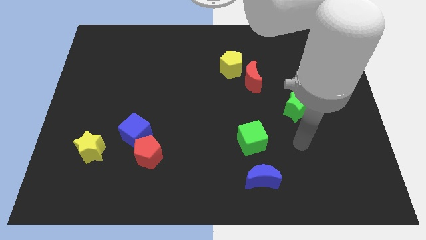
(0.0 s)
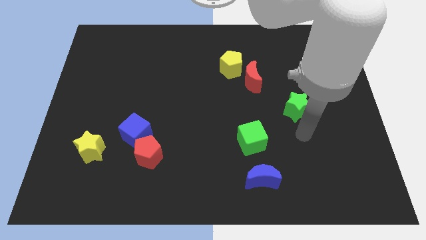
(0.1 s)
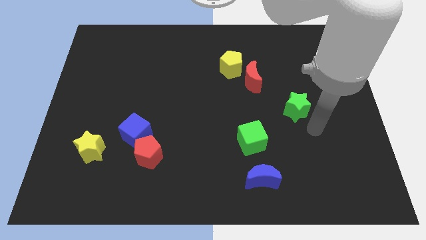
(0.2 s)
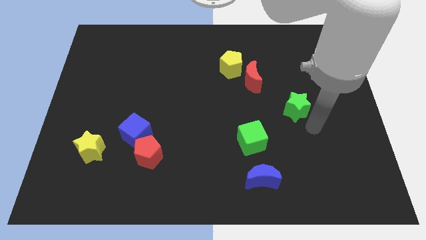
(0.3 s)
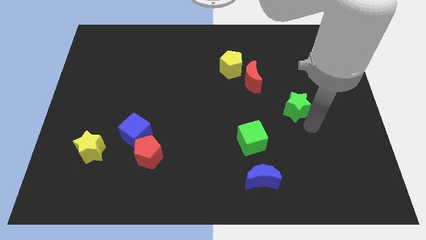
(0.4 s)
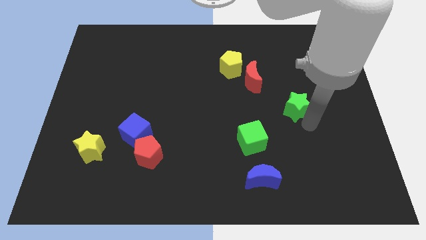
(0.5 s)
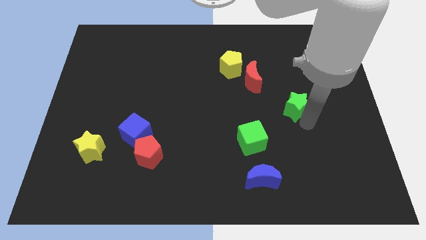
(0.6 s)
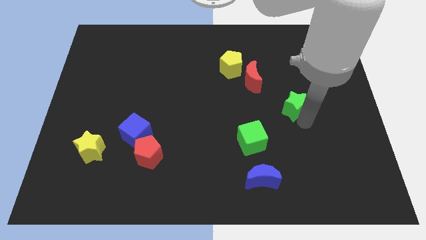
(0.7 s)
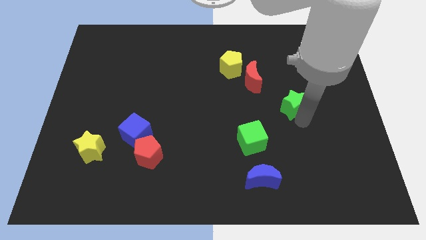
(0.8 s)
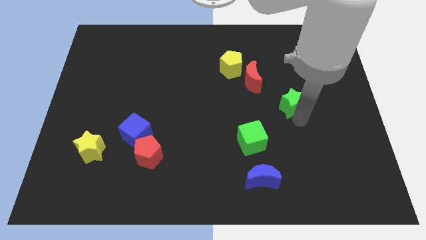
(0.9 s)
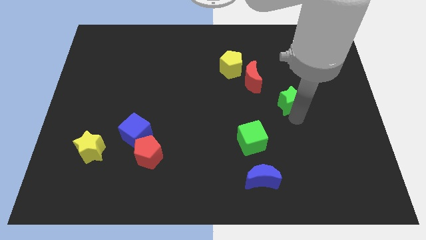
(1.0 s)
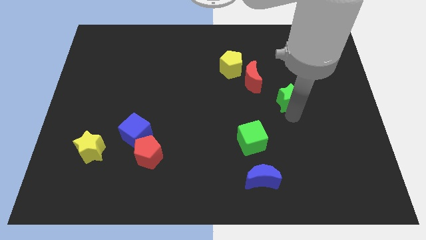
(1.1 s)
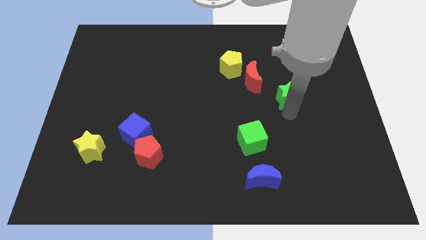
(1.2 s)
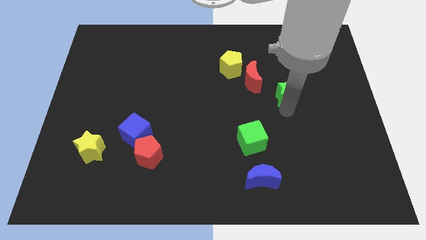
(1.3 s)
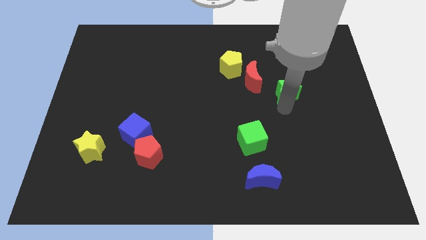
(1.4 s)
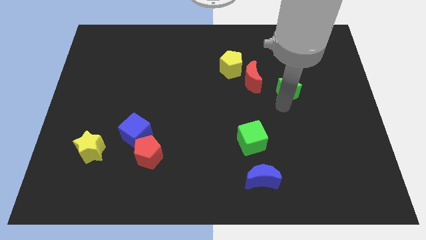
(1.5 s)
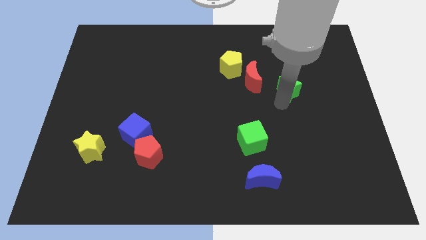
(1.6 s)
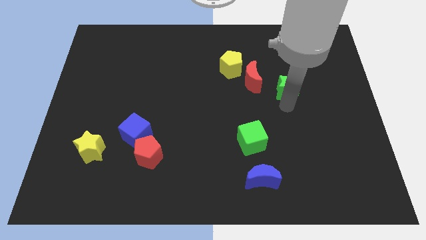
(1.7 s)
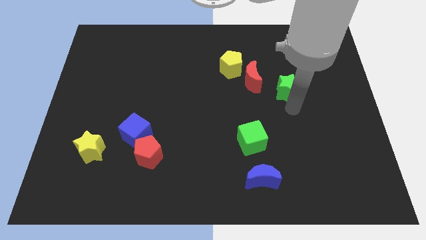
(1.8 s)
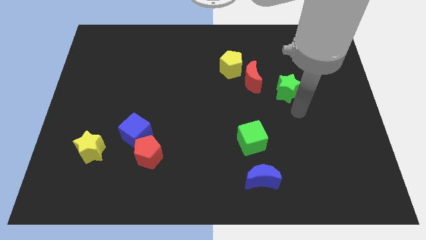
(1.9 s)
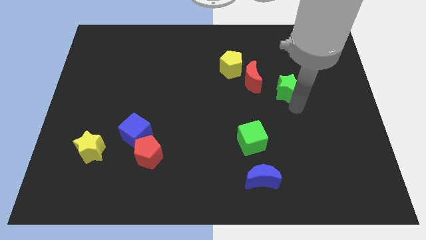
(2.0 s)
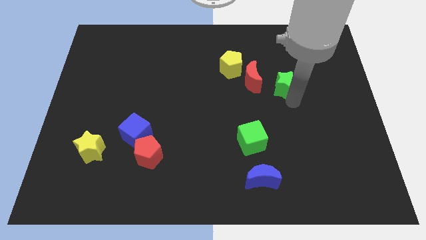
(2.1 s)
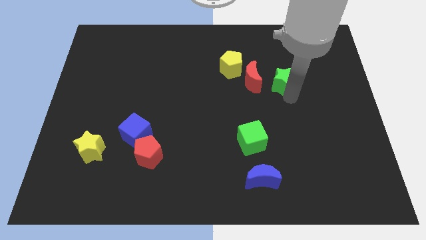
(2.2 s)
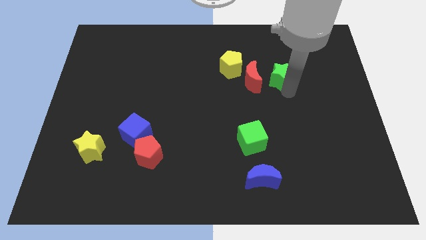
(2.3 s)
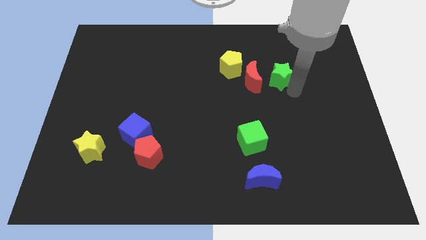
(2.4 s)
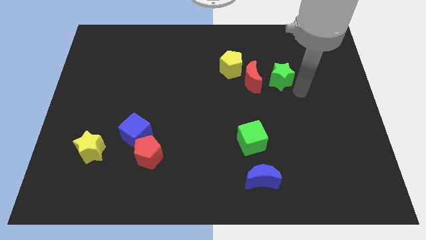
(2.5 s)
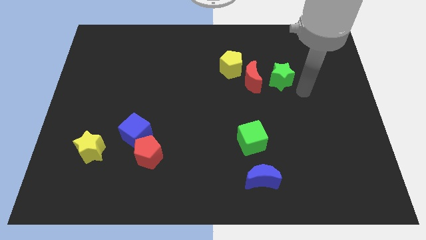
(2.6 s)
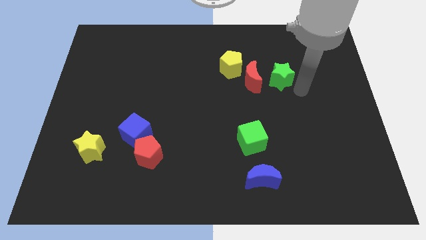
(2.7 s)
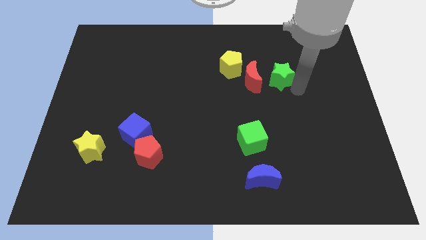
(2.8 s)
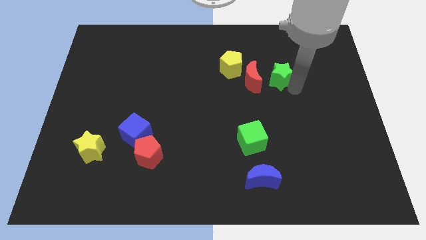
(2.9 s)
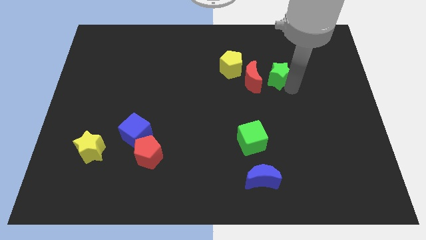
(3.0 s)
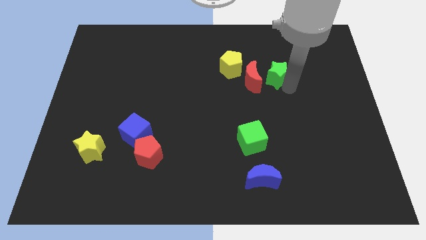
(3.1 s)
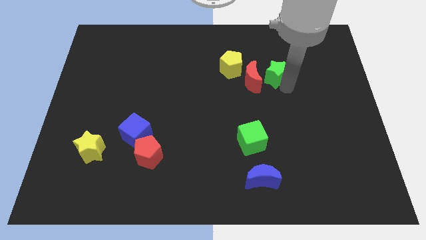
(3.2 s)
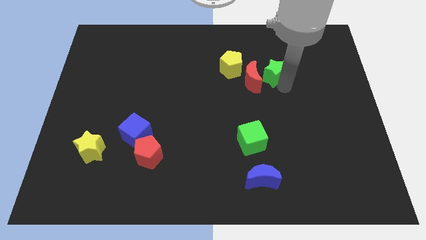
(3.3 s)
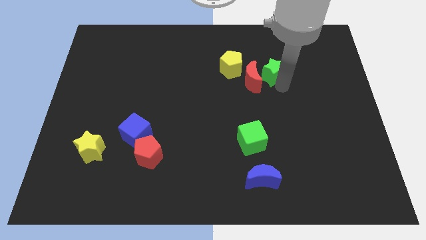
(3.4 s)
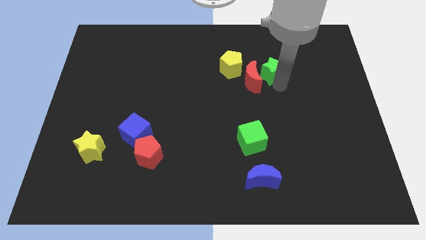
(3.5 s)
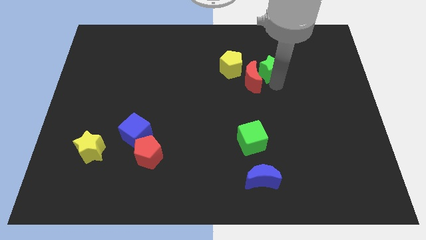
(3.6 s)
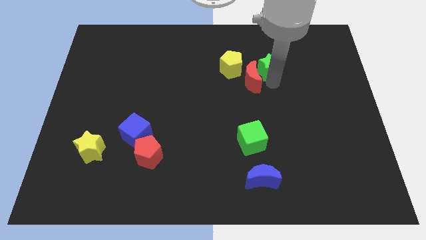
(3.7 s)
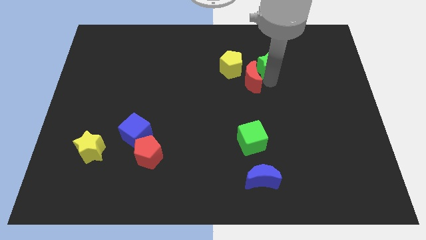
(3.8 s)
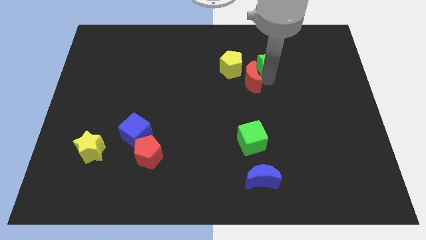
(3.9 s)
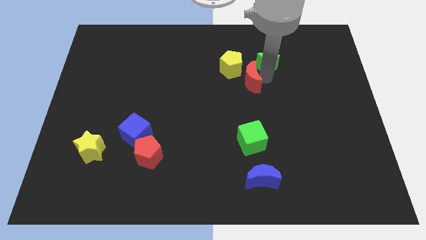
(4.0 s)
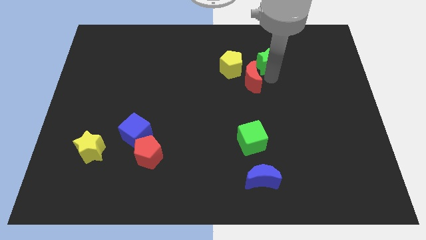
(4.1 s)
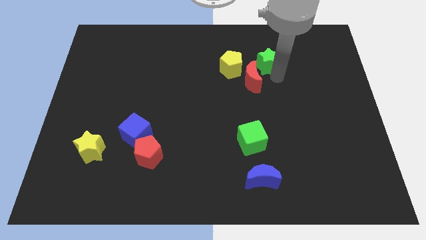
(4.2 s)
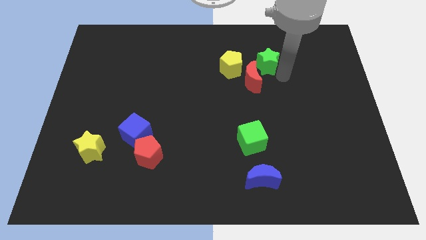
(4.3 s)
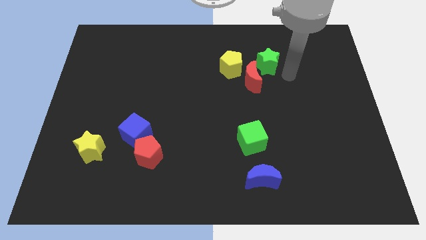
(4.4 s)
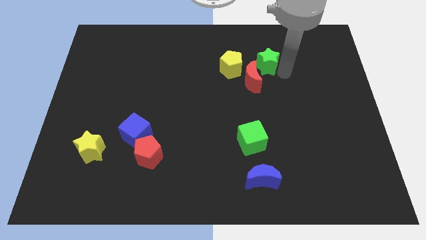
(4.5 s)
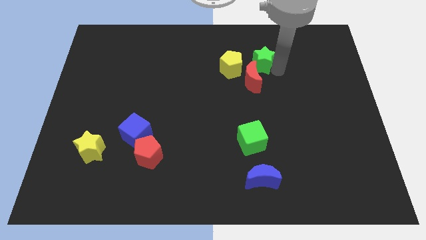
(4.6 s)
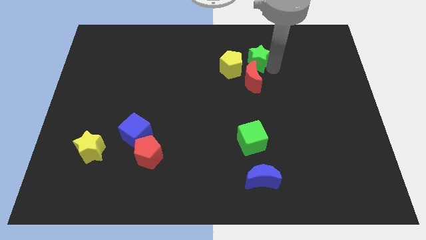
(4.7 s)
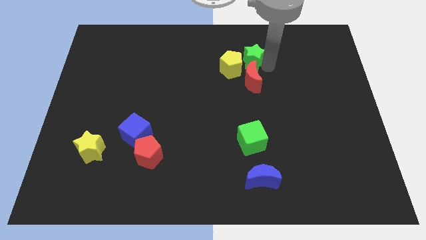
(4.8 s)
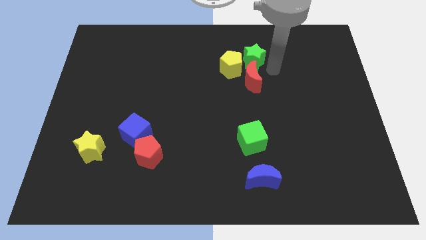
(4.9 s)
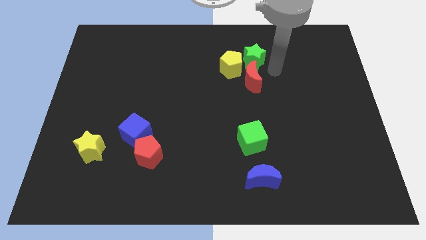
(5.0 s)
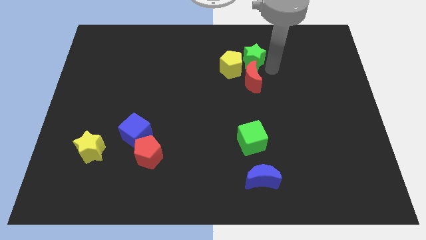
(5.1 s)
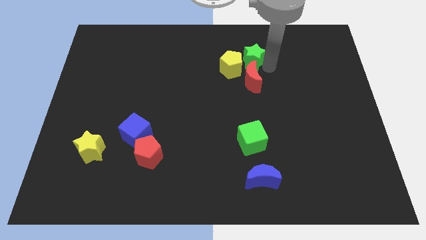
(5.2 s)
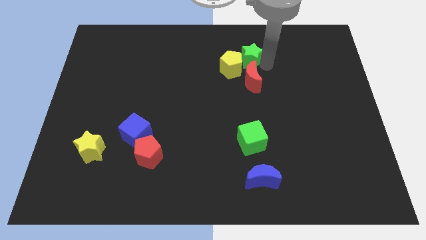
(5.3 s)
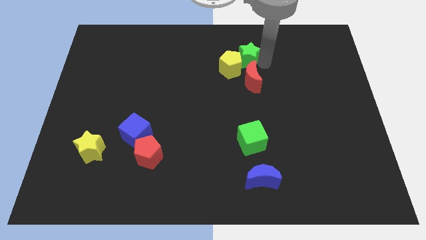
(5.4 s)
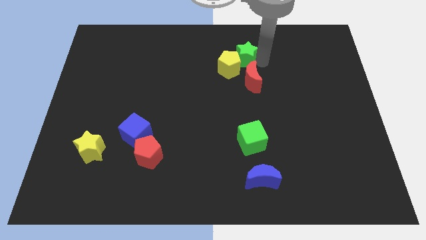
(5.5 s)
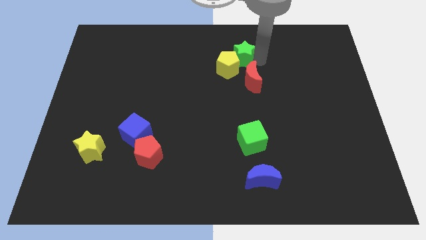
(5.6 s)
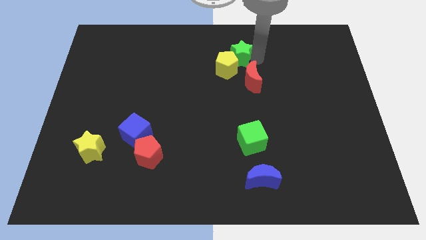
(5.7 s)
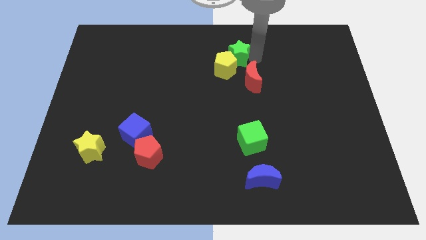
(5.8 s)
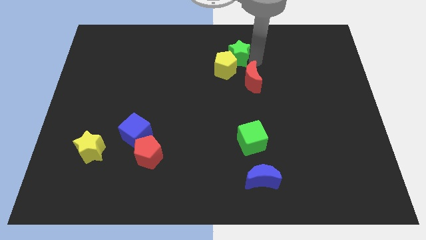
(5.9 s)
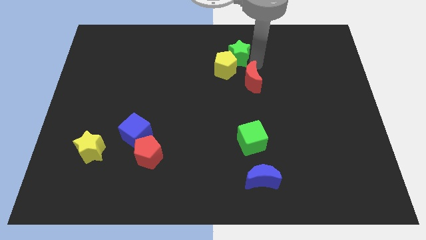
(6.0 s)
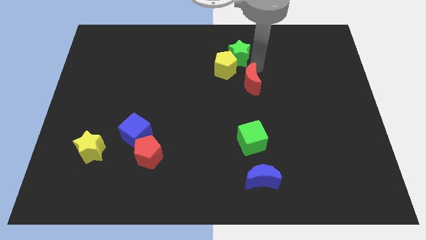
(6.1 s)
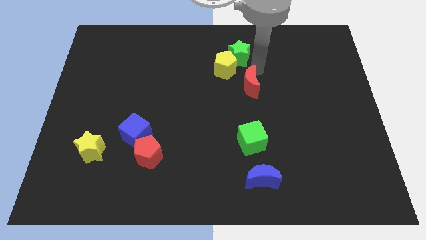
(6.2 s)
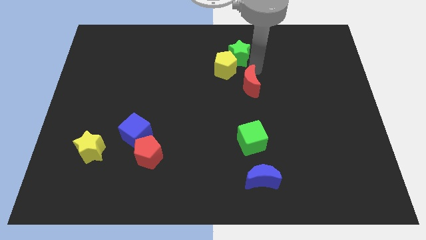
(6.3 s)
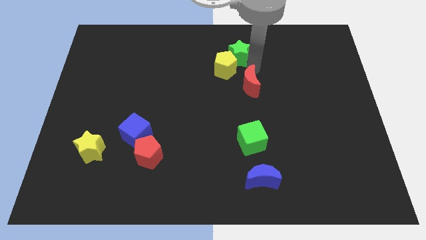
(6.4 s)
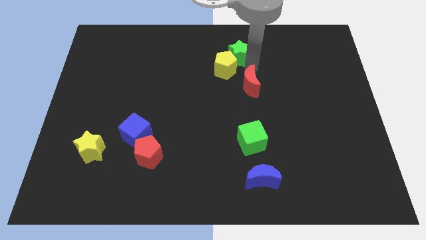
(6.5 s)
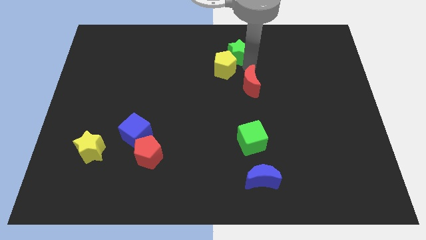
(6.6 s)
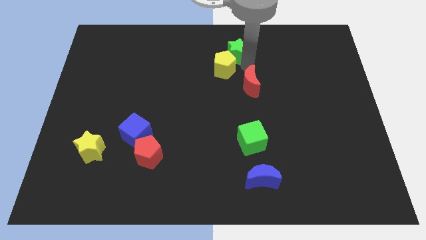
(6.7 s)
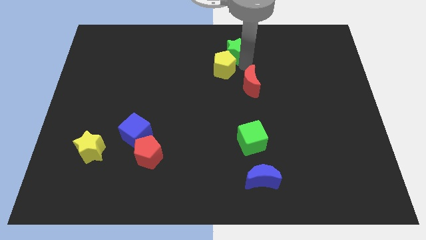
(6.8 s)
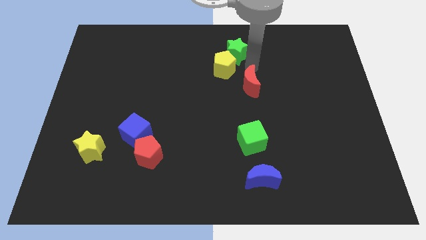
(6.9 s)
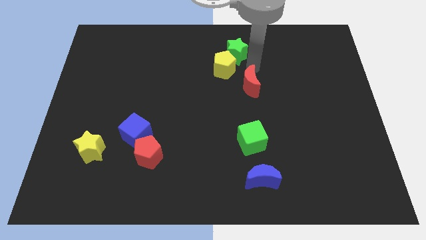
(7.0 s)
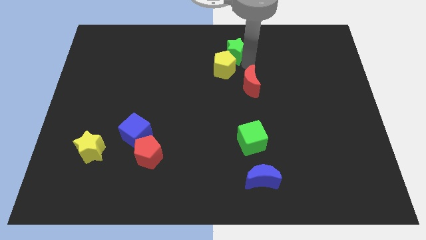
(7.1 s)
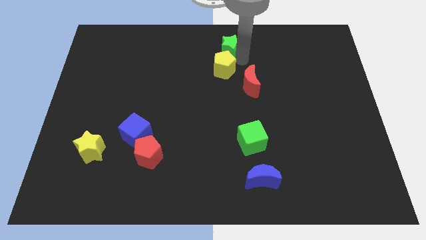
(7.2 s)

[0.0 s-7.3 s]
push the green star to the top side
